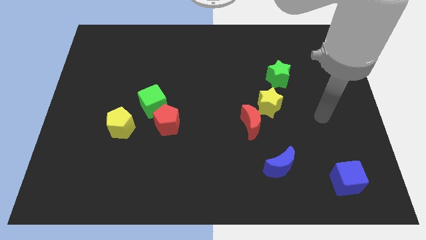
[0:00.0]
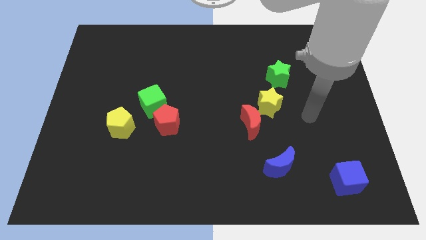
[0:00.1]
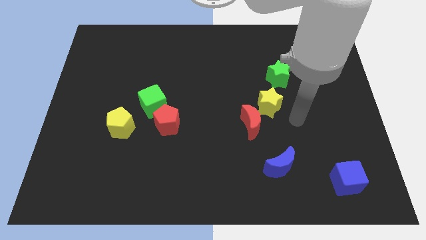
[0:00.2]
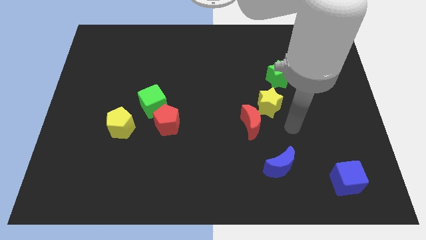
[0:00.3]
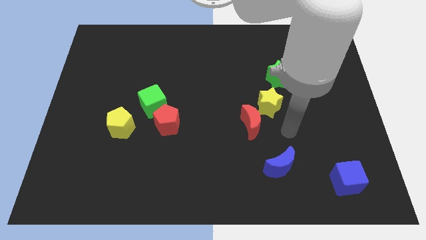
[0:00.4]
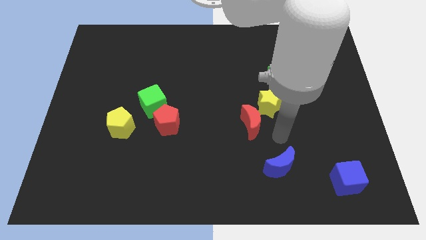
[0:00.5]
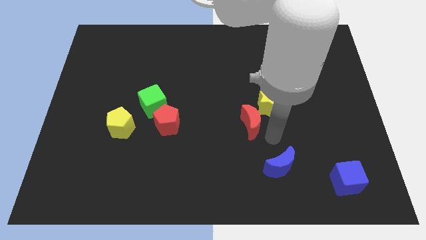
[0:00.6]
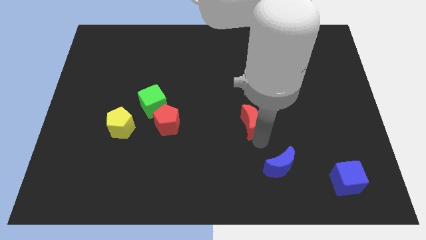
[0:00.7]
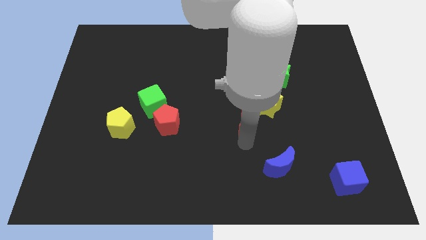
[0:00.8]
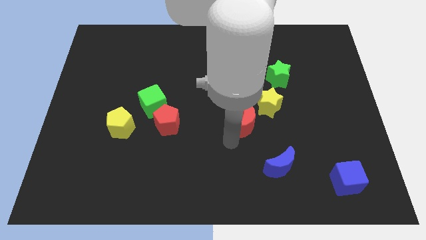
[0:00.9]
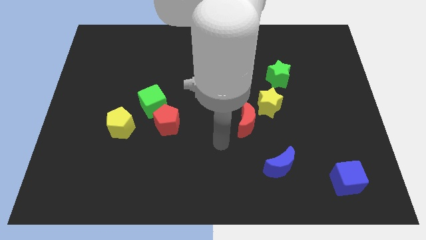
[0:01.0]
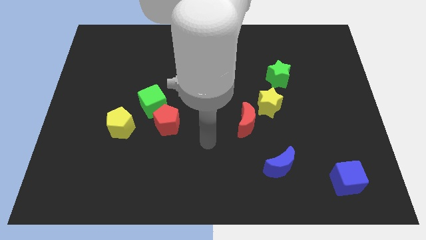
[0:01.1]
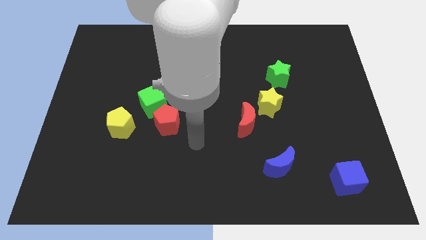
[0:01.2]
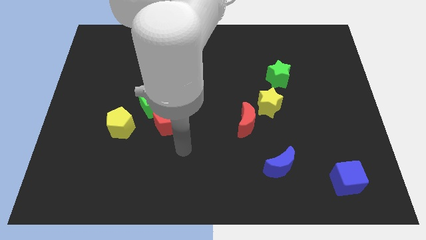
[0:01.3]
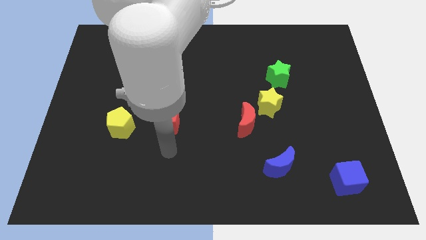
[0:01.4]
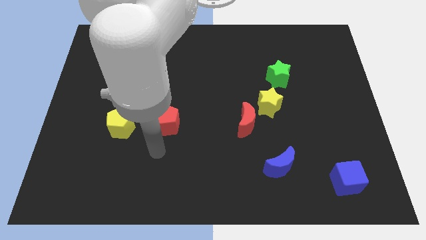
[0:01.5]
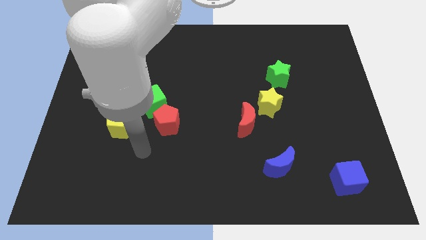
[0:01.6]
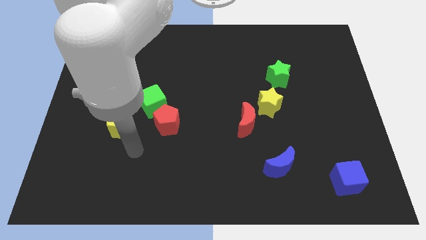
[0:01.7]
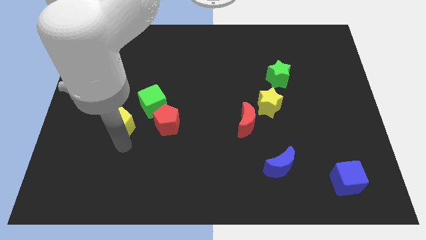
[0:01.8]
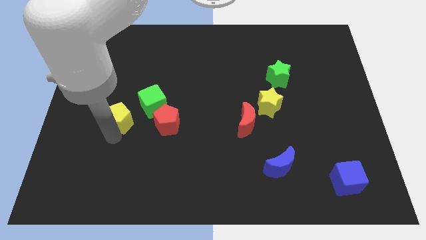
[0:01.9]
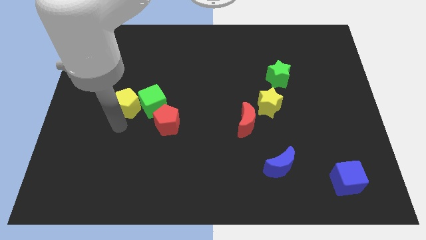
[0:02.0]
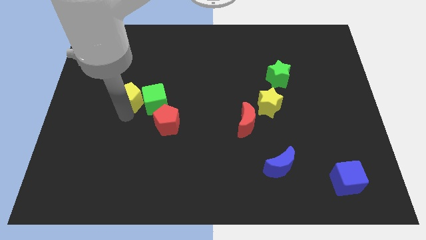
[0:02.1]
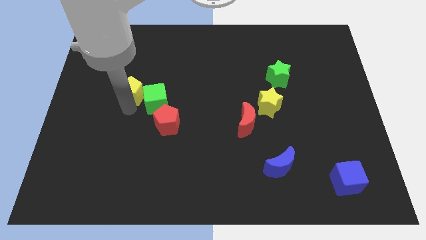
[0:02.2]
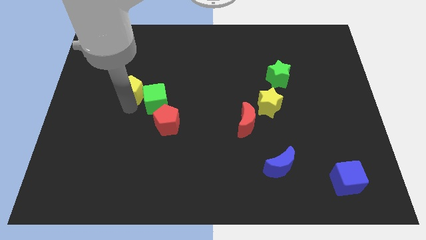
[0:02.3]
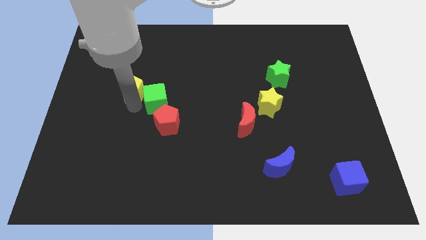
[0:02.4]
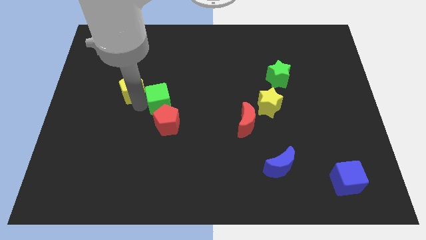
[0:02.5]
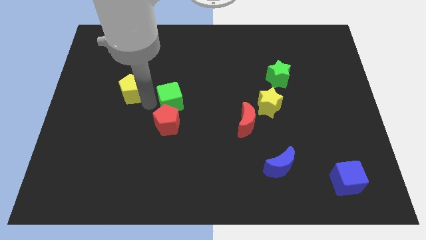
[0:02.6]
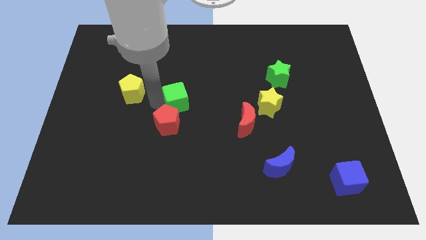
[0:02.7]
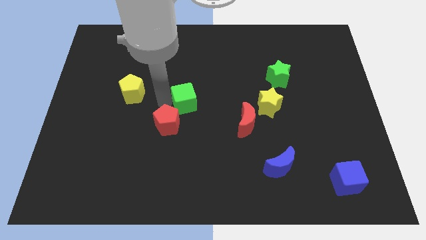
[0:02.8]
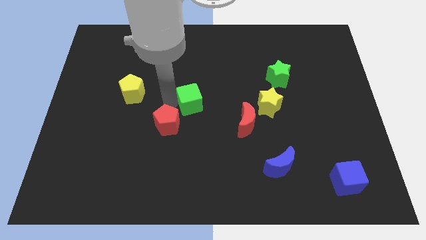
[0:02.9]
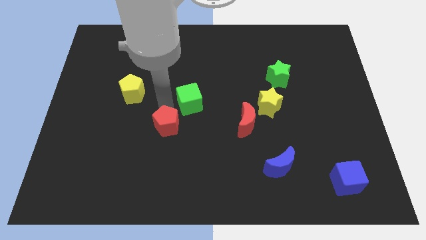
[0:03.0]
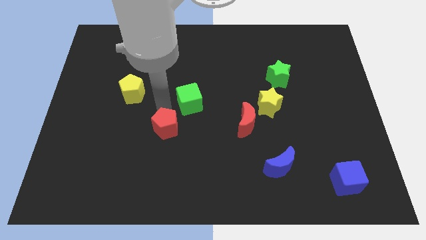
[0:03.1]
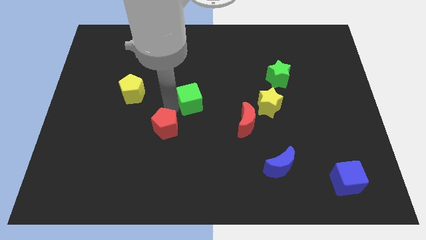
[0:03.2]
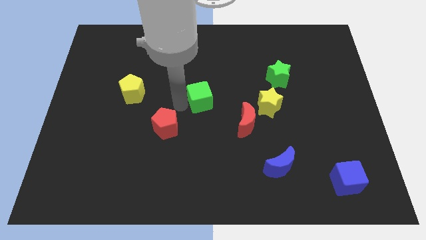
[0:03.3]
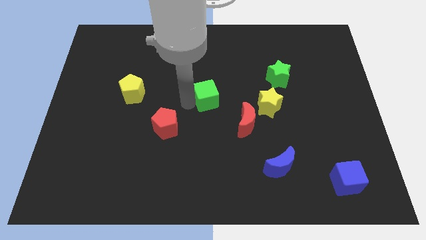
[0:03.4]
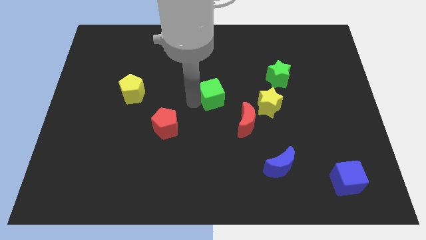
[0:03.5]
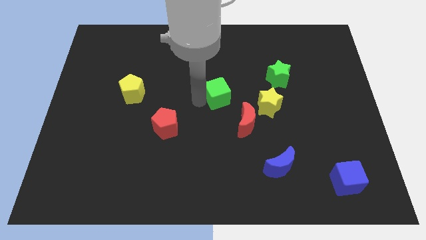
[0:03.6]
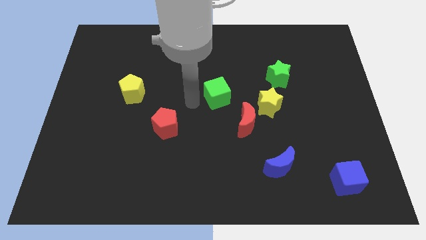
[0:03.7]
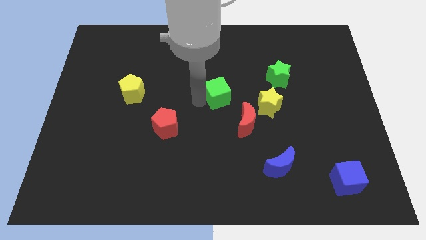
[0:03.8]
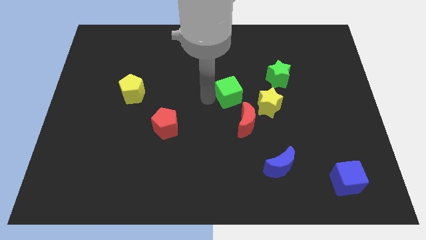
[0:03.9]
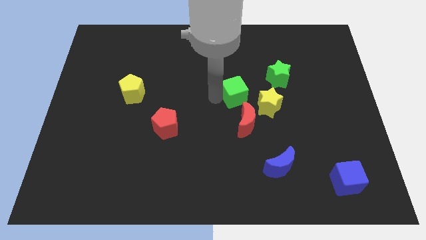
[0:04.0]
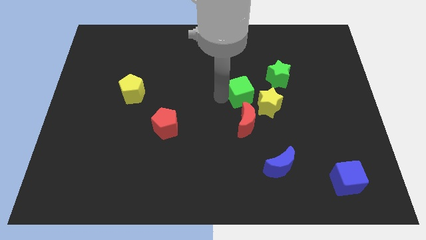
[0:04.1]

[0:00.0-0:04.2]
push the green cube right

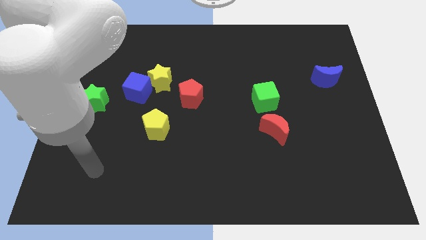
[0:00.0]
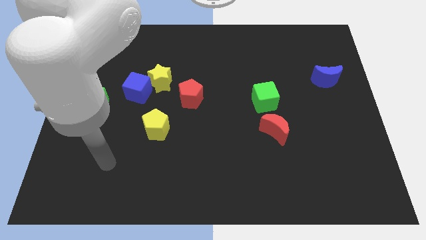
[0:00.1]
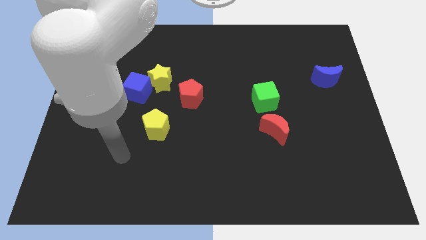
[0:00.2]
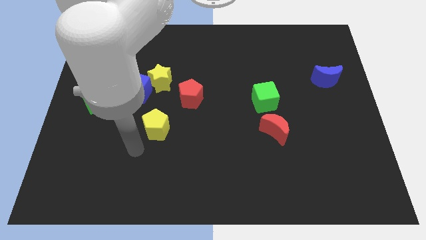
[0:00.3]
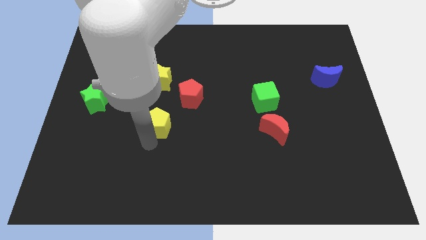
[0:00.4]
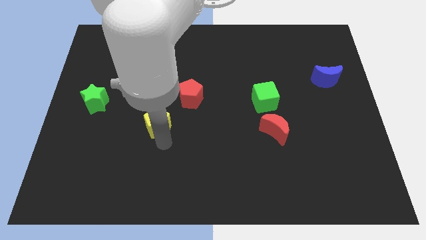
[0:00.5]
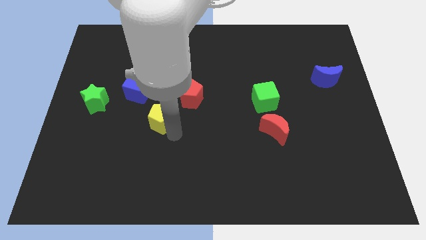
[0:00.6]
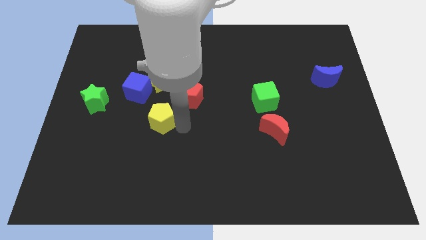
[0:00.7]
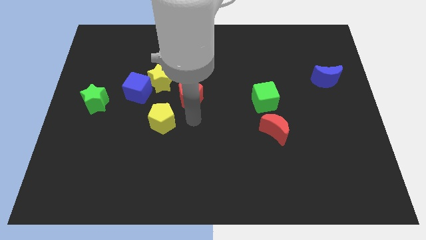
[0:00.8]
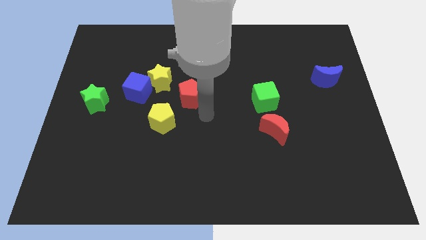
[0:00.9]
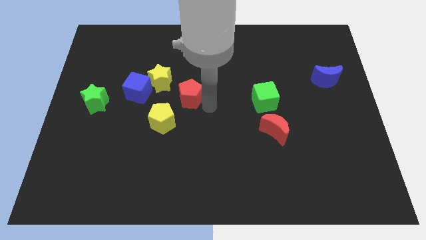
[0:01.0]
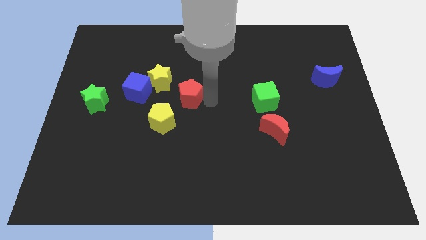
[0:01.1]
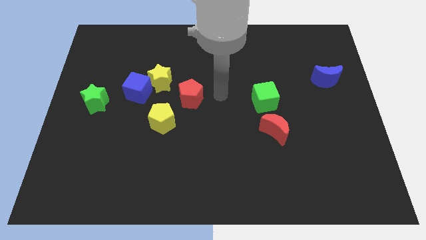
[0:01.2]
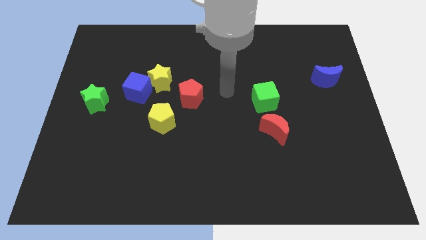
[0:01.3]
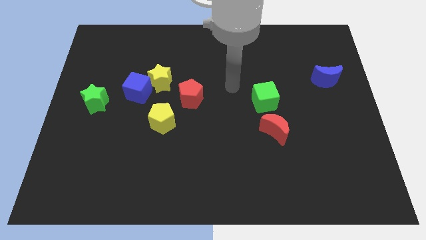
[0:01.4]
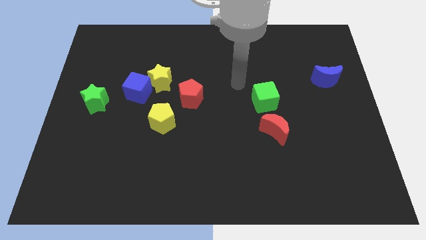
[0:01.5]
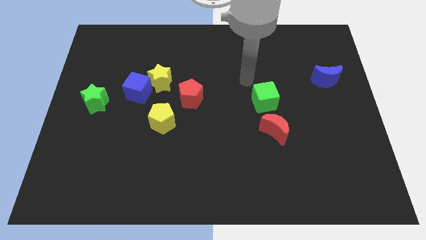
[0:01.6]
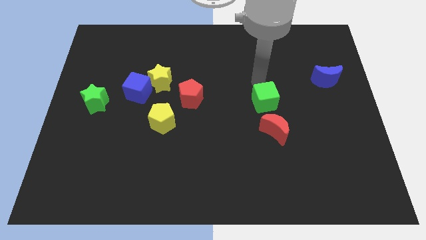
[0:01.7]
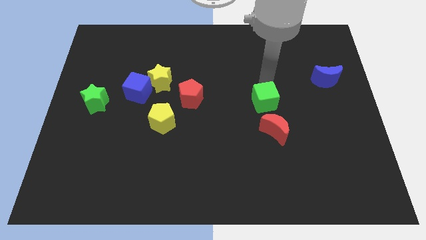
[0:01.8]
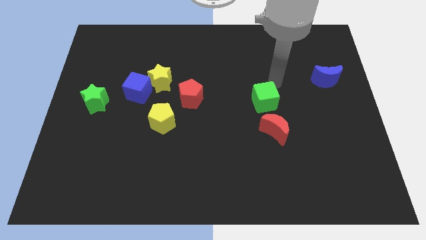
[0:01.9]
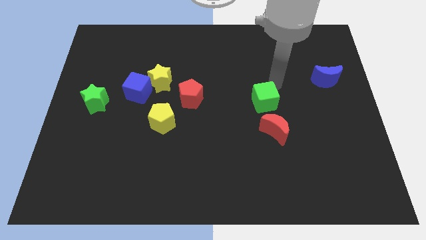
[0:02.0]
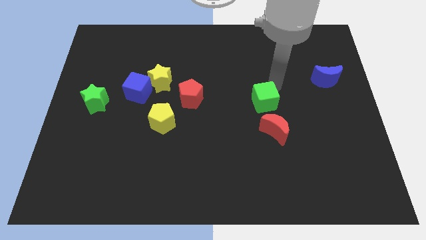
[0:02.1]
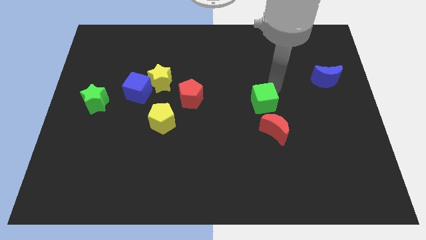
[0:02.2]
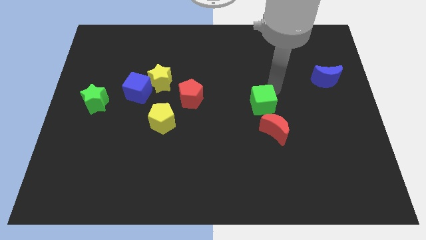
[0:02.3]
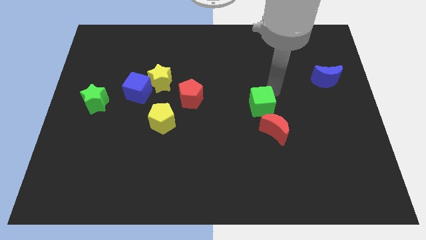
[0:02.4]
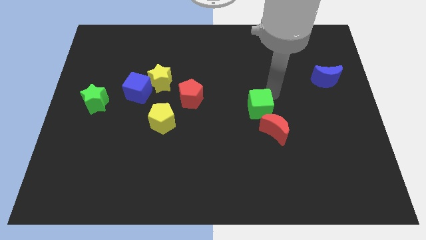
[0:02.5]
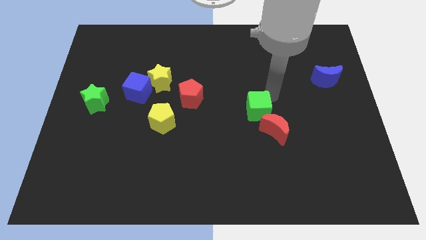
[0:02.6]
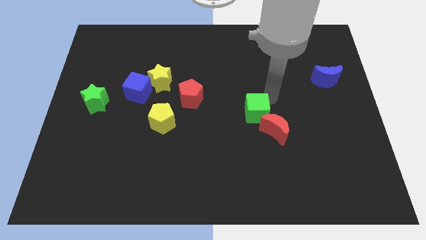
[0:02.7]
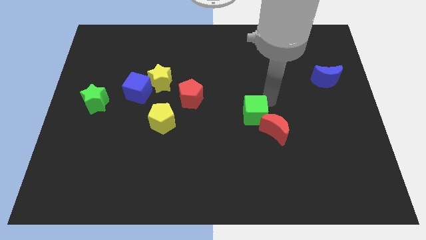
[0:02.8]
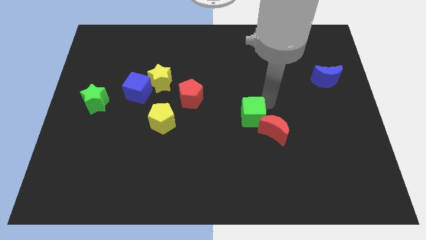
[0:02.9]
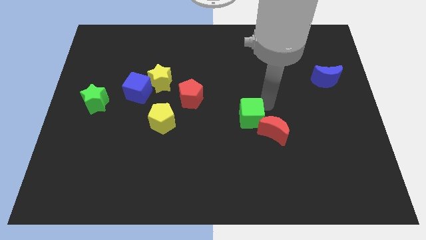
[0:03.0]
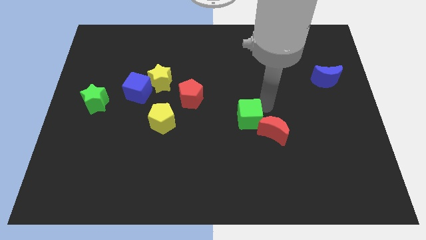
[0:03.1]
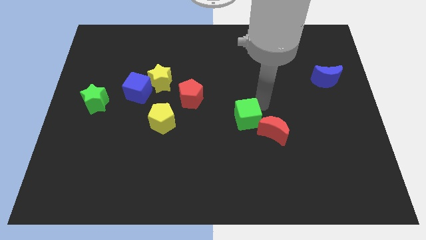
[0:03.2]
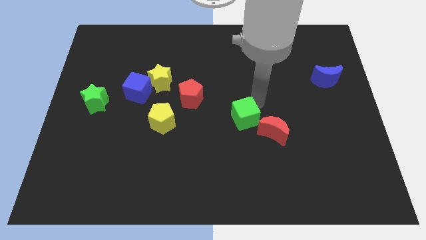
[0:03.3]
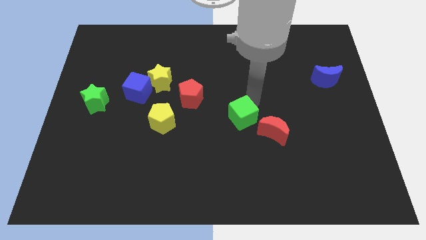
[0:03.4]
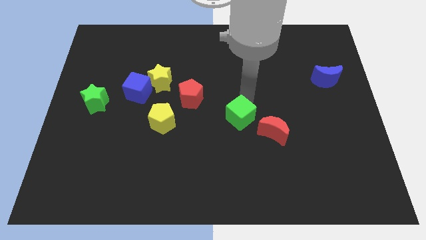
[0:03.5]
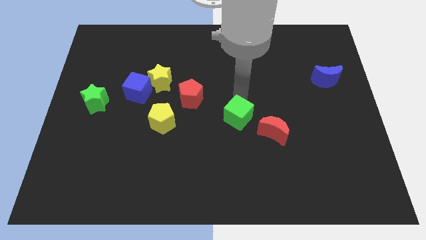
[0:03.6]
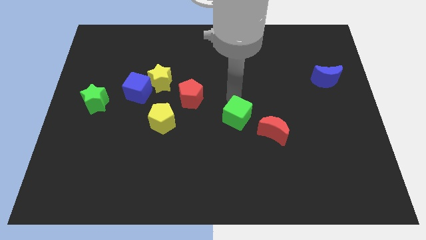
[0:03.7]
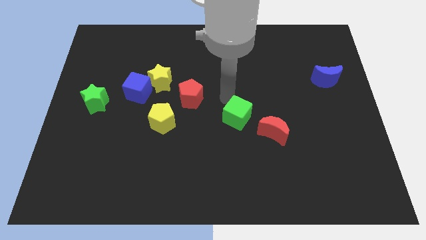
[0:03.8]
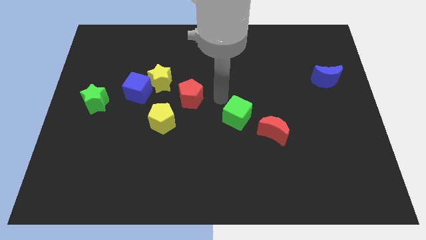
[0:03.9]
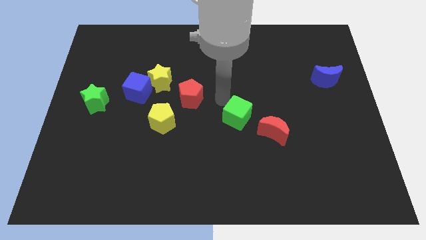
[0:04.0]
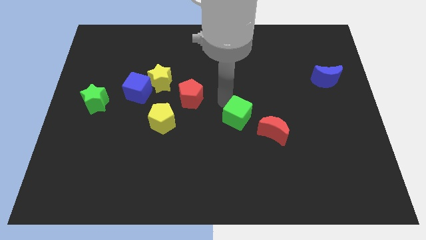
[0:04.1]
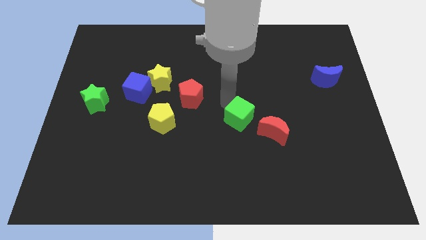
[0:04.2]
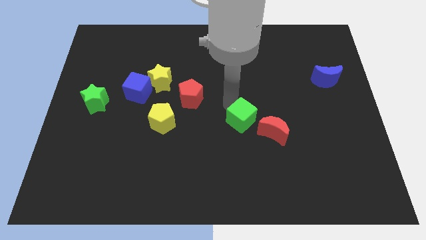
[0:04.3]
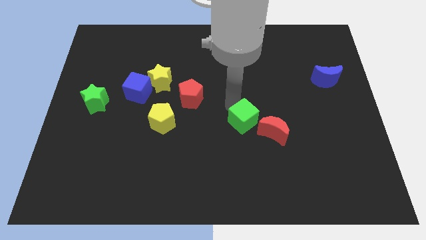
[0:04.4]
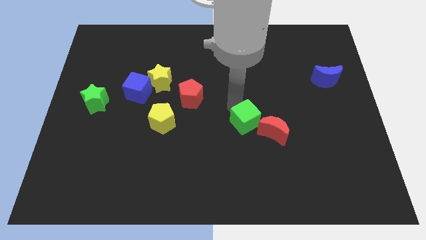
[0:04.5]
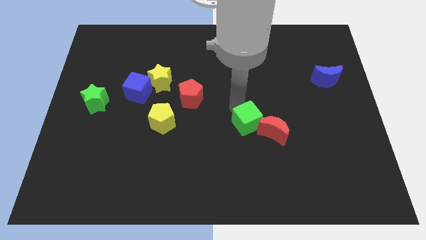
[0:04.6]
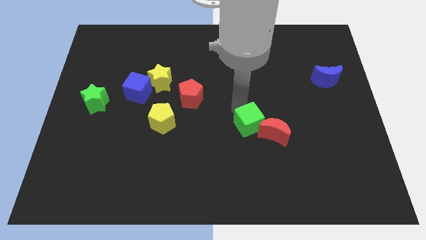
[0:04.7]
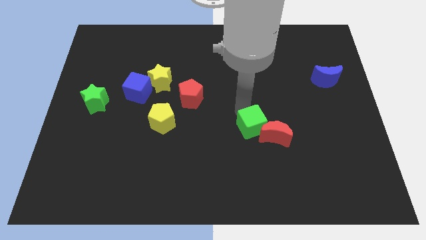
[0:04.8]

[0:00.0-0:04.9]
move the green cube down slightly
